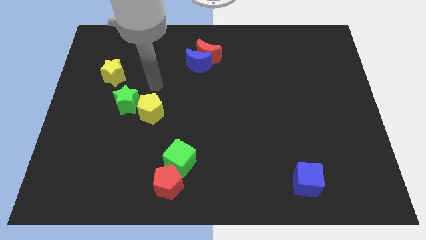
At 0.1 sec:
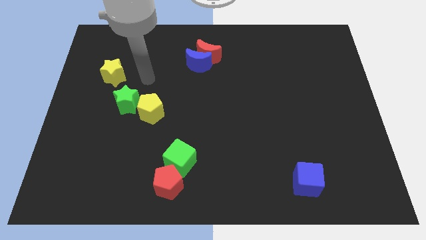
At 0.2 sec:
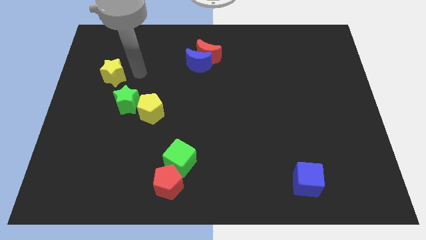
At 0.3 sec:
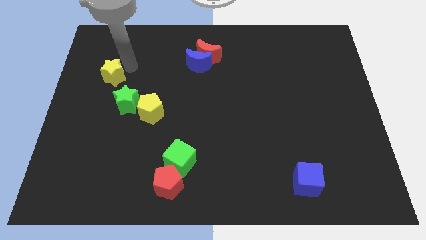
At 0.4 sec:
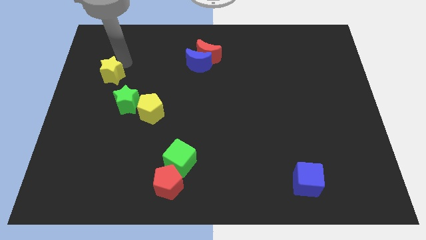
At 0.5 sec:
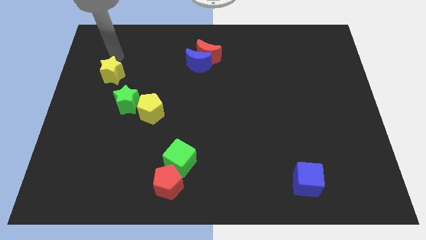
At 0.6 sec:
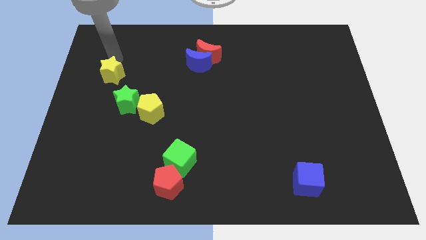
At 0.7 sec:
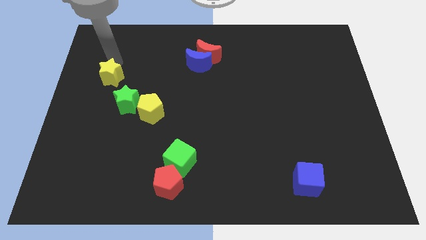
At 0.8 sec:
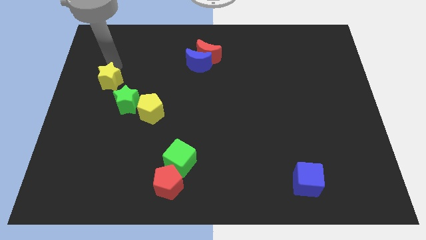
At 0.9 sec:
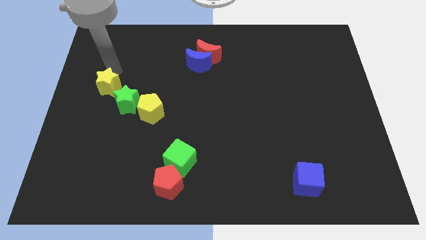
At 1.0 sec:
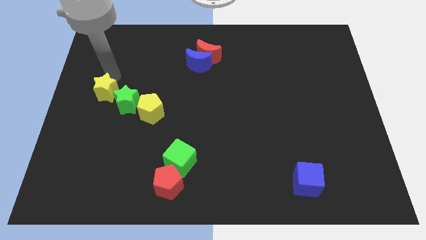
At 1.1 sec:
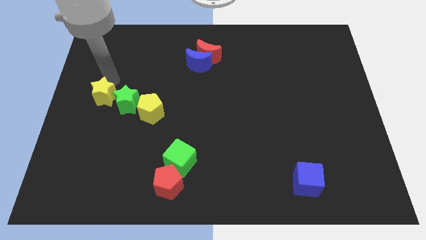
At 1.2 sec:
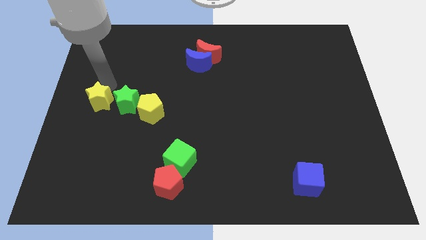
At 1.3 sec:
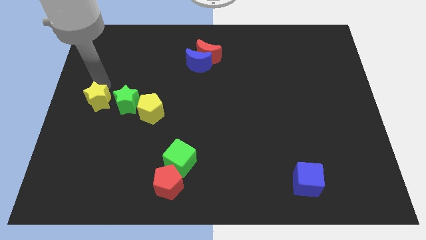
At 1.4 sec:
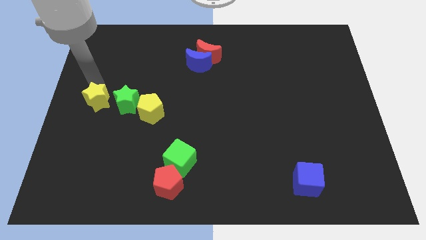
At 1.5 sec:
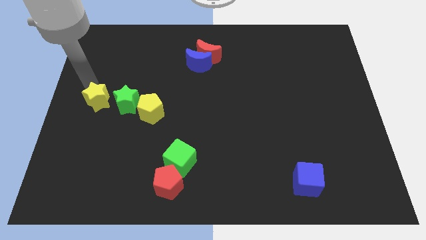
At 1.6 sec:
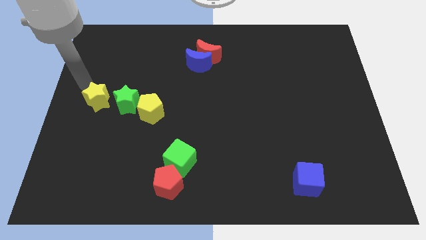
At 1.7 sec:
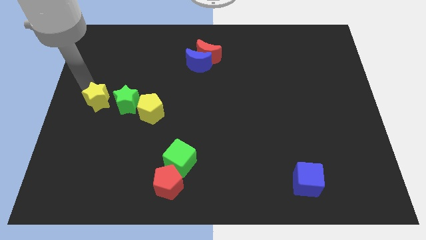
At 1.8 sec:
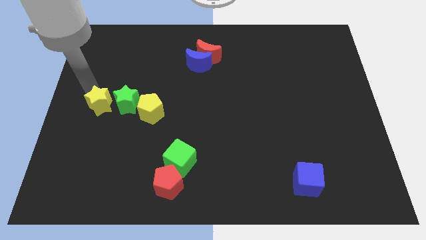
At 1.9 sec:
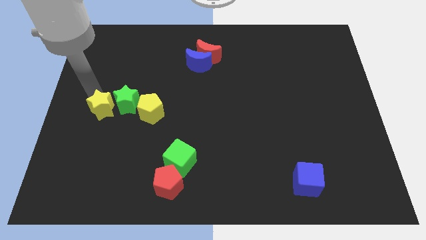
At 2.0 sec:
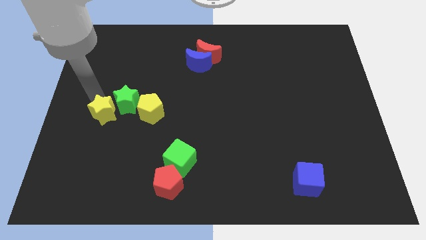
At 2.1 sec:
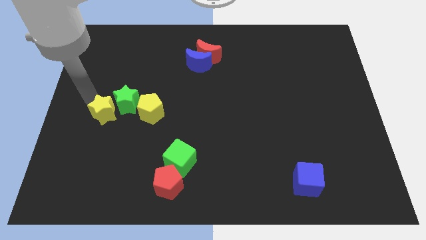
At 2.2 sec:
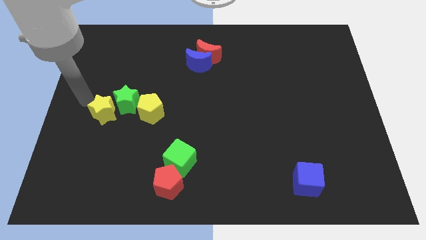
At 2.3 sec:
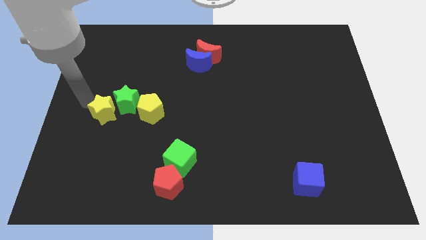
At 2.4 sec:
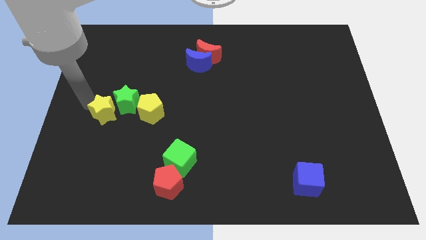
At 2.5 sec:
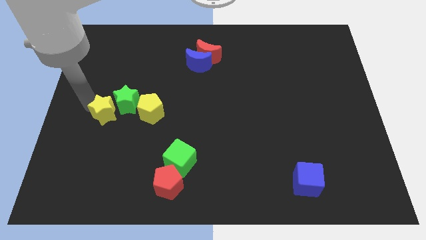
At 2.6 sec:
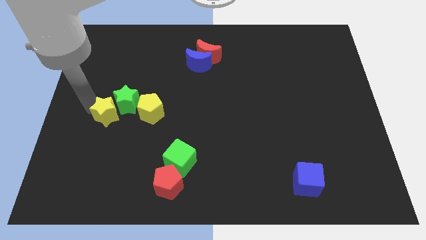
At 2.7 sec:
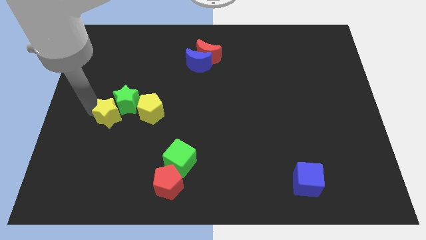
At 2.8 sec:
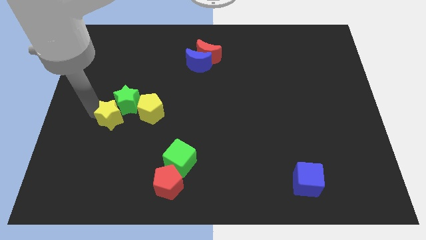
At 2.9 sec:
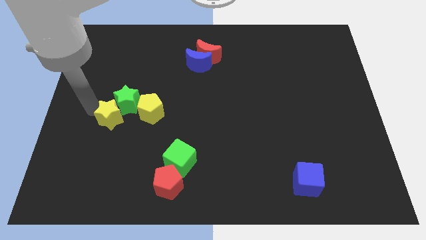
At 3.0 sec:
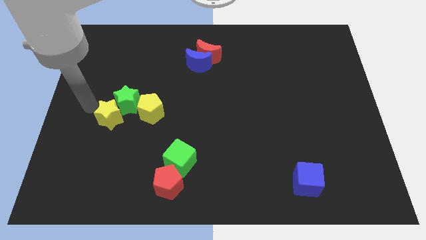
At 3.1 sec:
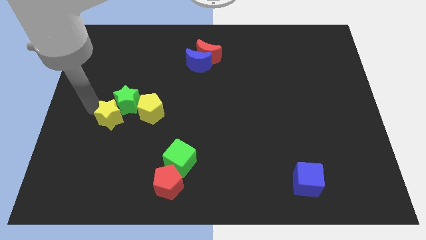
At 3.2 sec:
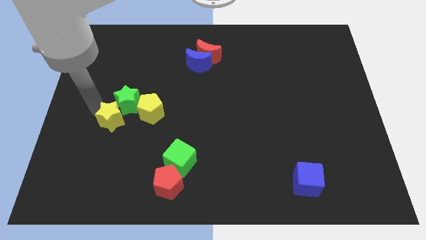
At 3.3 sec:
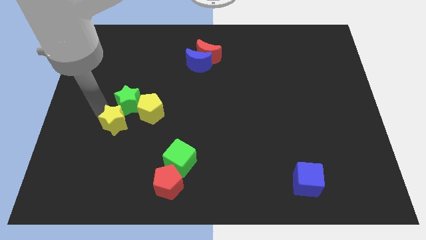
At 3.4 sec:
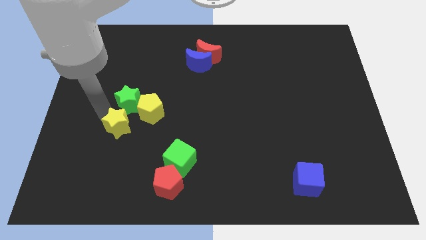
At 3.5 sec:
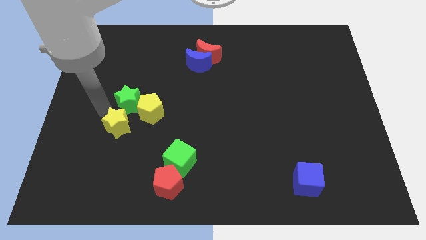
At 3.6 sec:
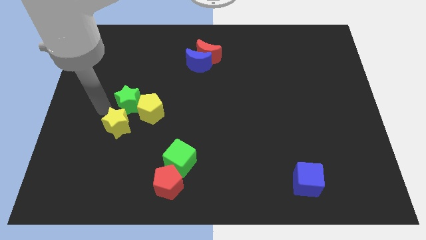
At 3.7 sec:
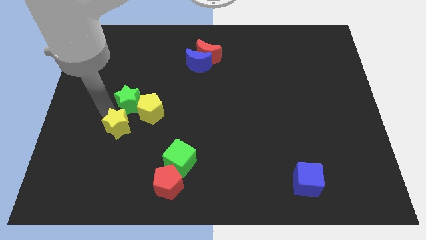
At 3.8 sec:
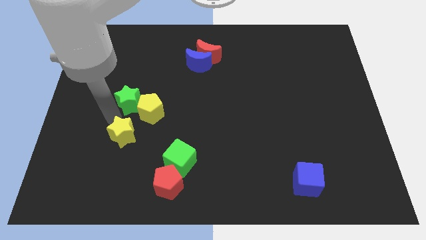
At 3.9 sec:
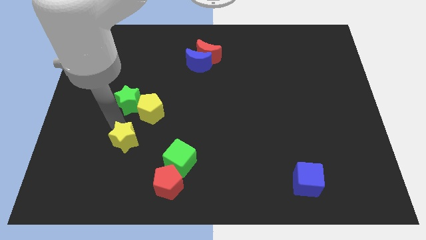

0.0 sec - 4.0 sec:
move the yellow star below the yellow pentagon

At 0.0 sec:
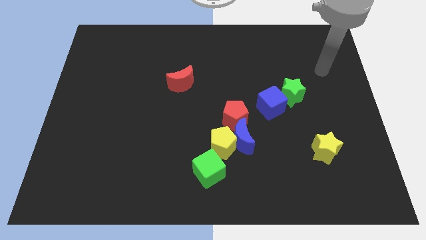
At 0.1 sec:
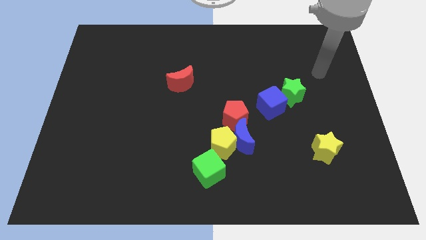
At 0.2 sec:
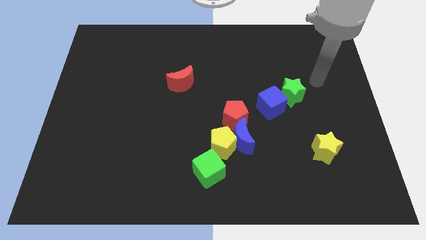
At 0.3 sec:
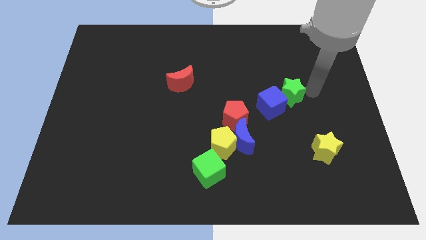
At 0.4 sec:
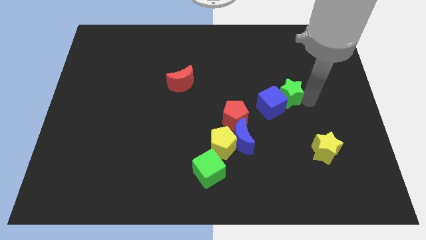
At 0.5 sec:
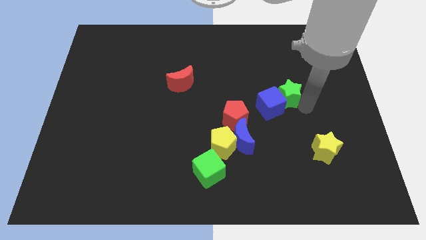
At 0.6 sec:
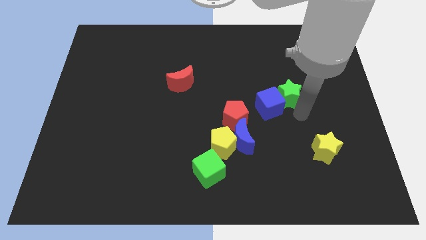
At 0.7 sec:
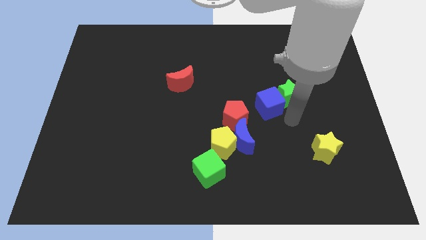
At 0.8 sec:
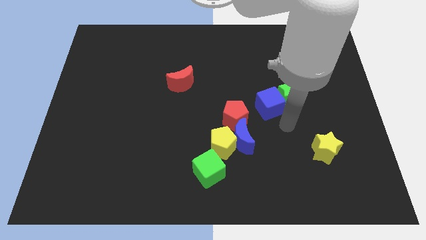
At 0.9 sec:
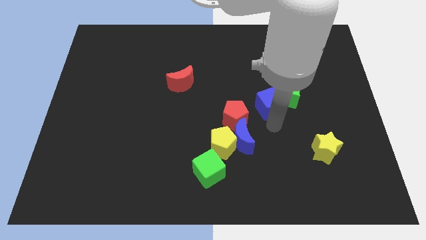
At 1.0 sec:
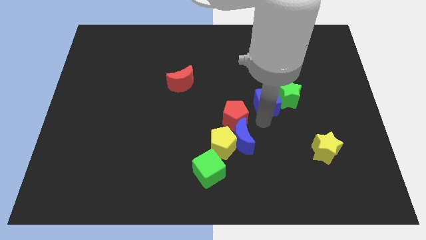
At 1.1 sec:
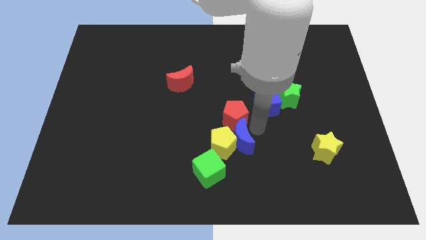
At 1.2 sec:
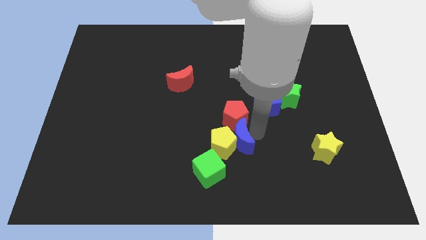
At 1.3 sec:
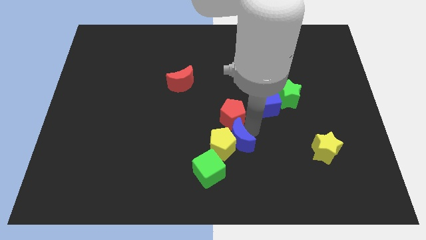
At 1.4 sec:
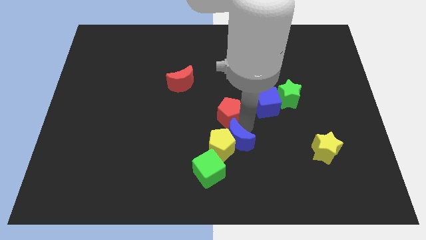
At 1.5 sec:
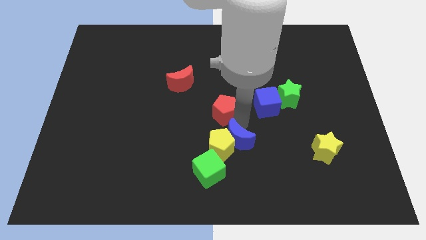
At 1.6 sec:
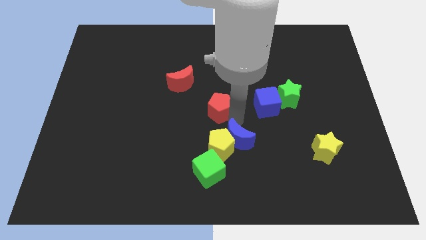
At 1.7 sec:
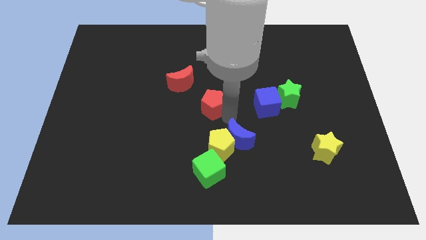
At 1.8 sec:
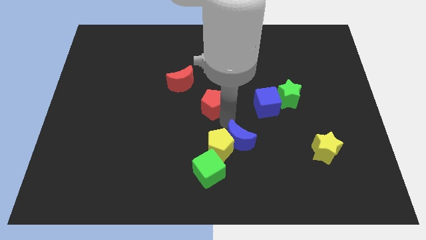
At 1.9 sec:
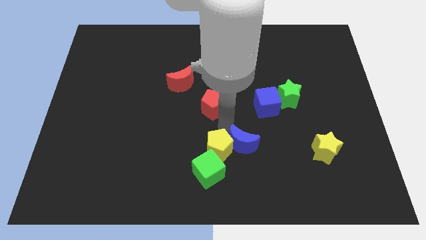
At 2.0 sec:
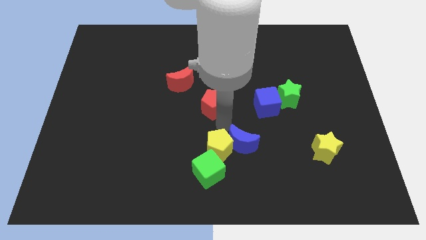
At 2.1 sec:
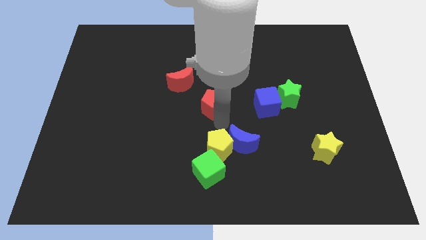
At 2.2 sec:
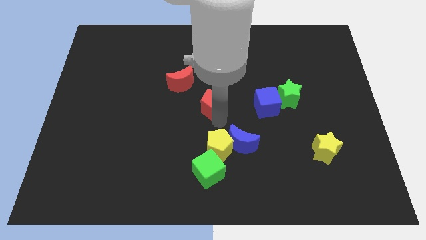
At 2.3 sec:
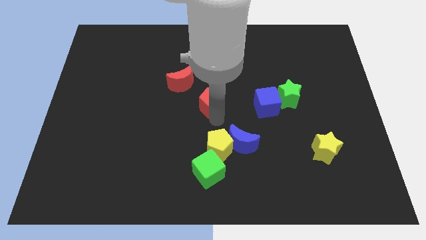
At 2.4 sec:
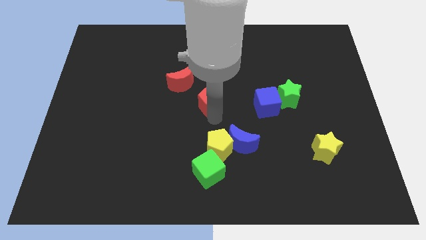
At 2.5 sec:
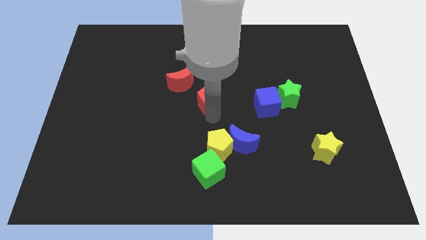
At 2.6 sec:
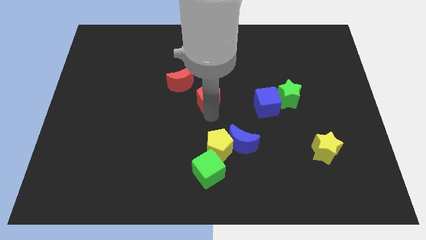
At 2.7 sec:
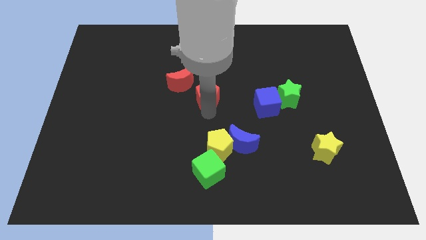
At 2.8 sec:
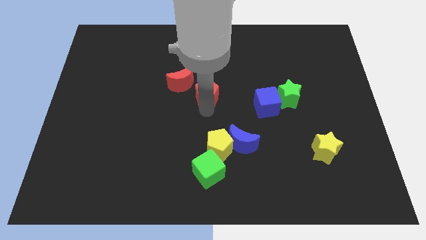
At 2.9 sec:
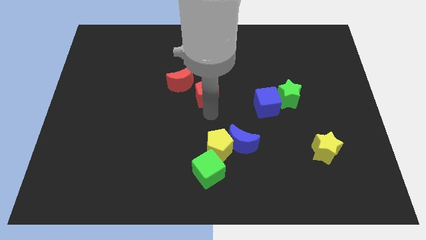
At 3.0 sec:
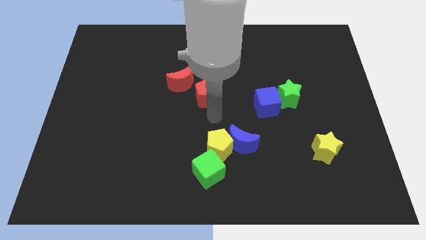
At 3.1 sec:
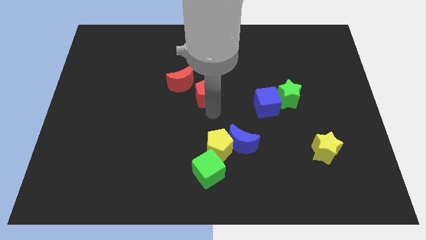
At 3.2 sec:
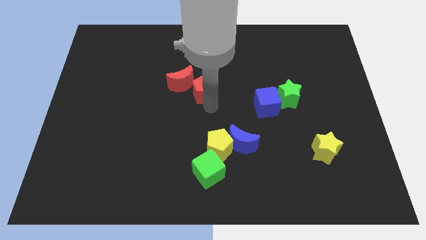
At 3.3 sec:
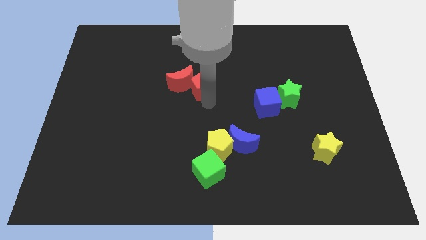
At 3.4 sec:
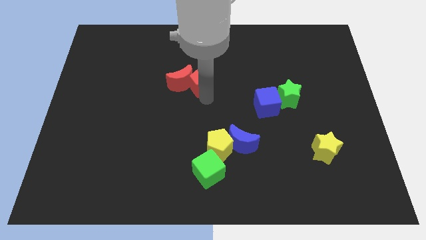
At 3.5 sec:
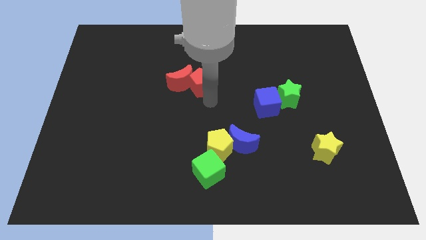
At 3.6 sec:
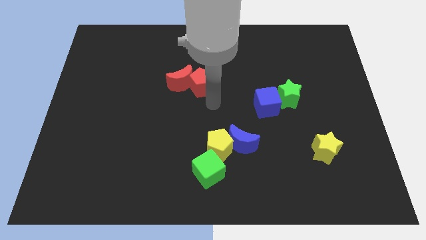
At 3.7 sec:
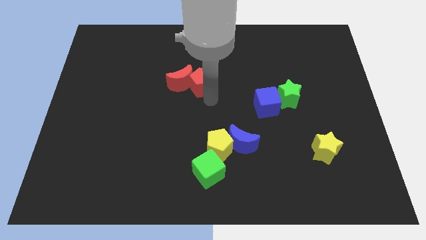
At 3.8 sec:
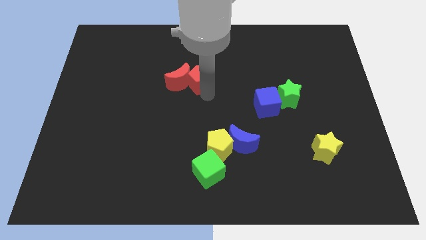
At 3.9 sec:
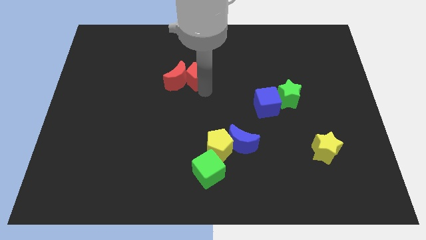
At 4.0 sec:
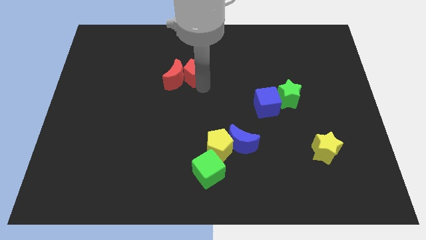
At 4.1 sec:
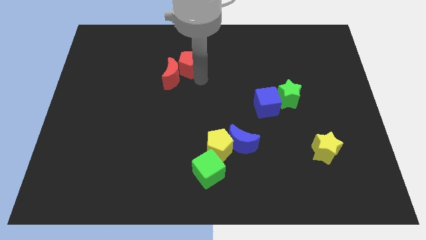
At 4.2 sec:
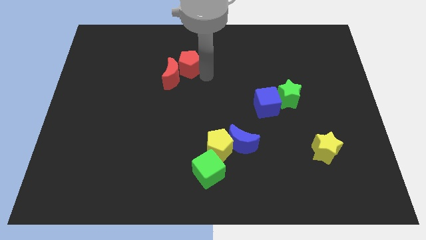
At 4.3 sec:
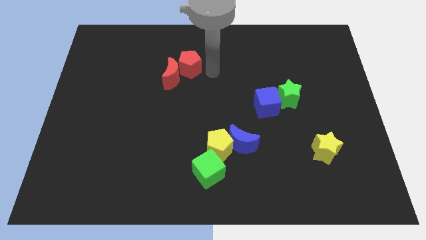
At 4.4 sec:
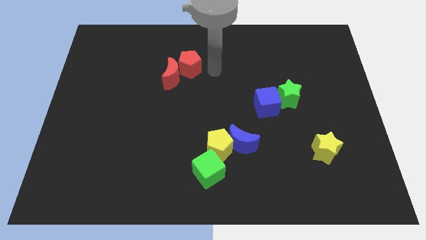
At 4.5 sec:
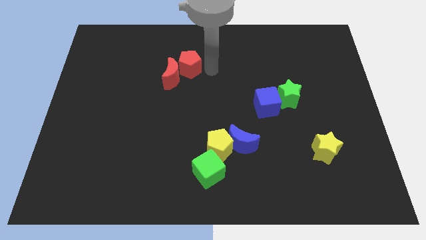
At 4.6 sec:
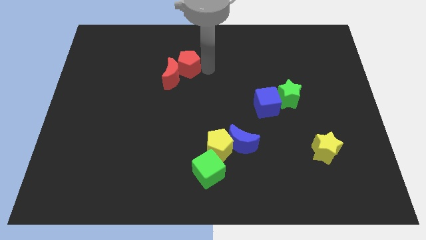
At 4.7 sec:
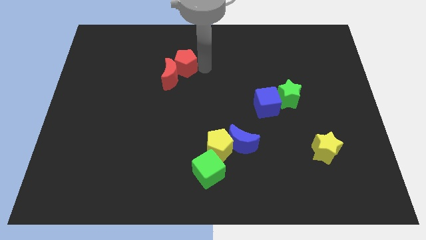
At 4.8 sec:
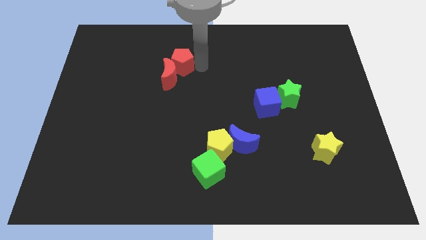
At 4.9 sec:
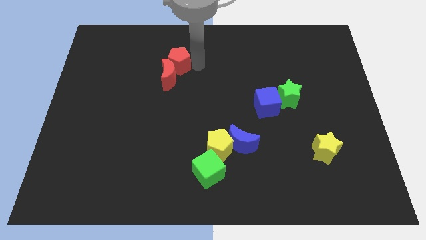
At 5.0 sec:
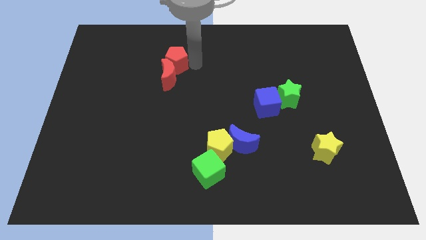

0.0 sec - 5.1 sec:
slide the red pentagon diagonally up and to the left of the red moon
